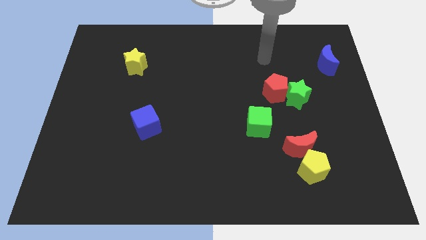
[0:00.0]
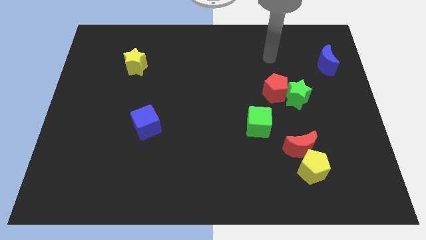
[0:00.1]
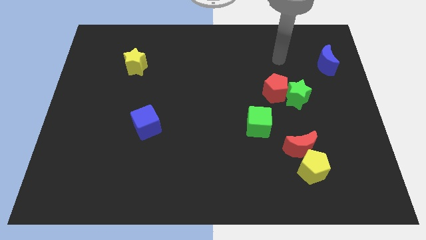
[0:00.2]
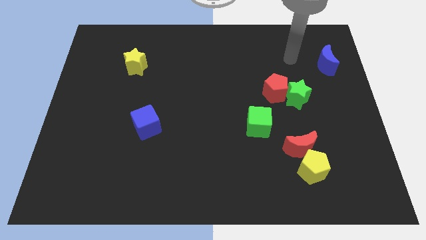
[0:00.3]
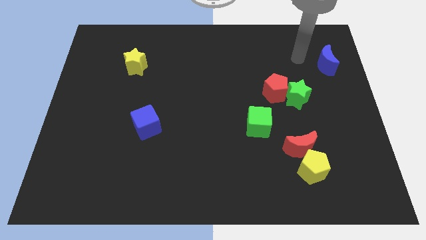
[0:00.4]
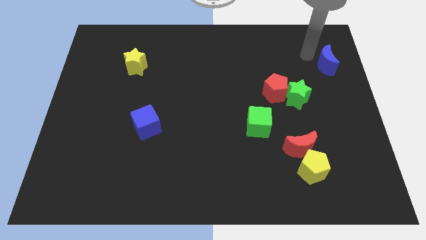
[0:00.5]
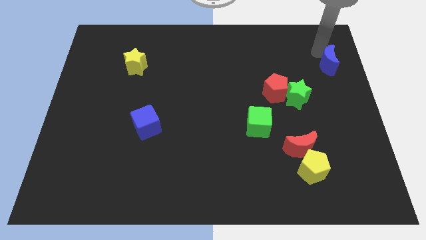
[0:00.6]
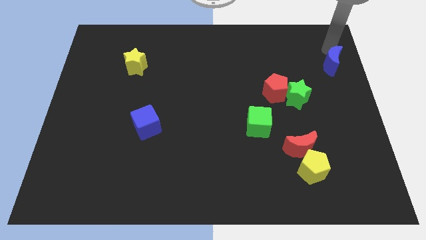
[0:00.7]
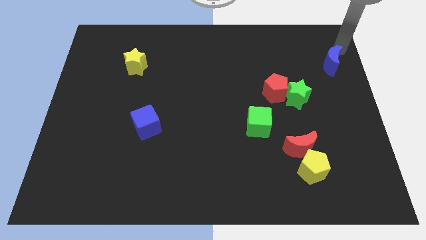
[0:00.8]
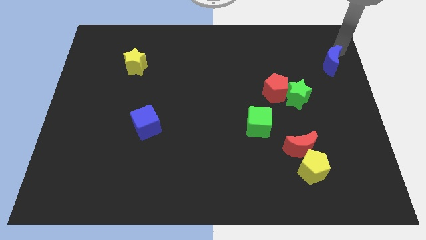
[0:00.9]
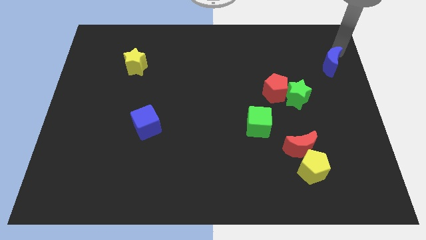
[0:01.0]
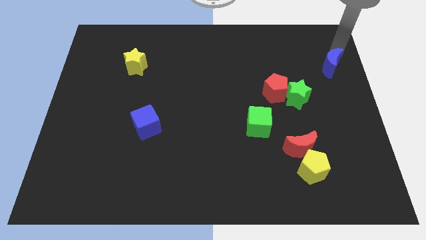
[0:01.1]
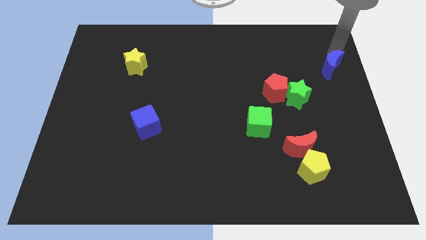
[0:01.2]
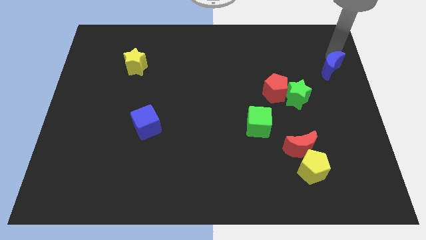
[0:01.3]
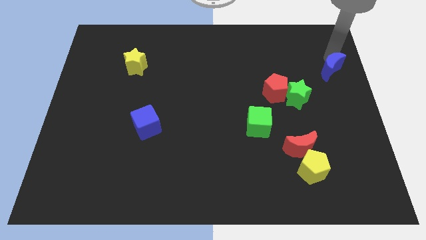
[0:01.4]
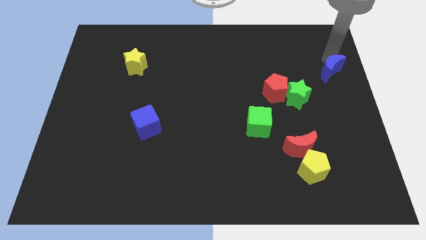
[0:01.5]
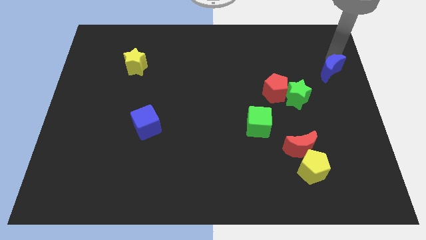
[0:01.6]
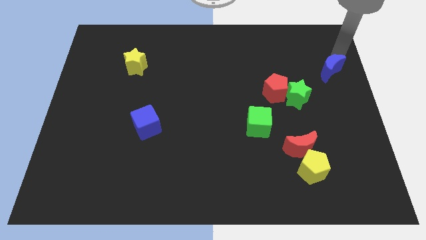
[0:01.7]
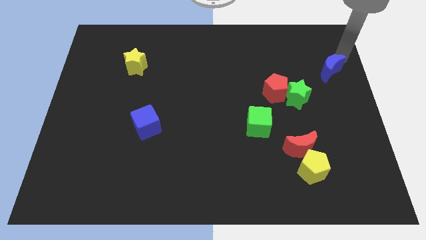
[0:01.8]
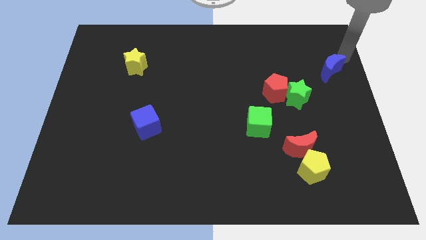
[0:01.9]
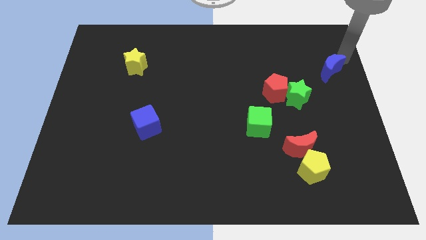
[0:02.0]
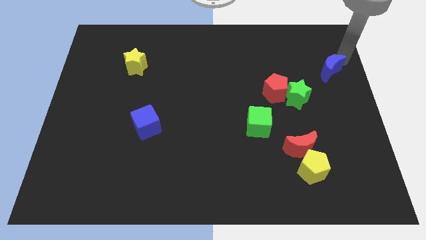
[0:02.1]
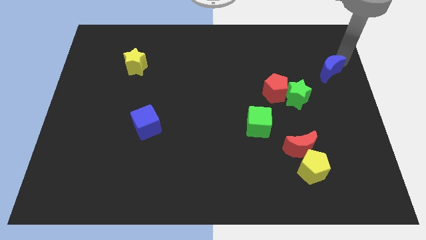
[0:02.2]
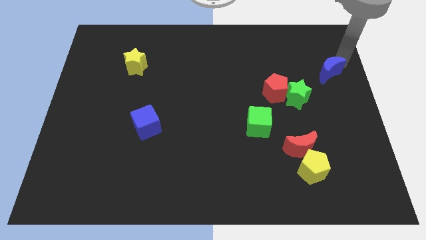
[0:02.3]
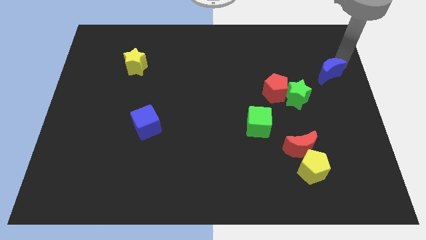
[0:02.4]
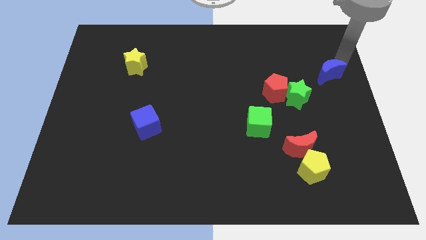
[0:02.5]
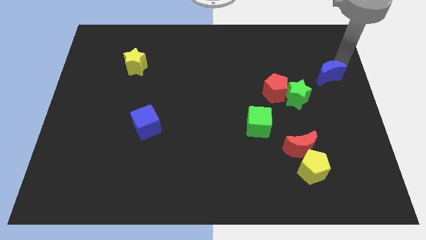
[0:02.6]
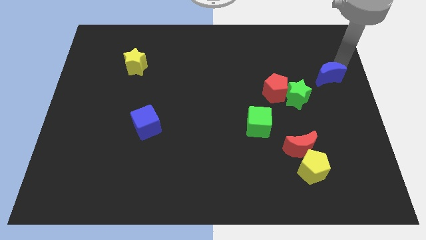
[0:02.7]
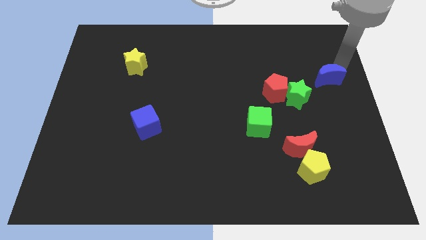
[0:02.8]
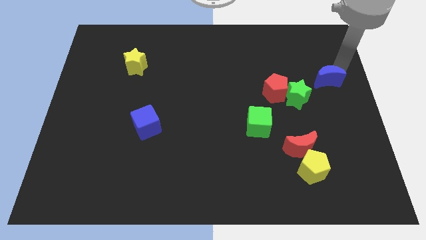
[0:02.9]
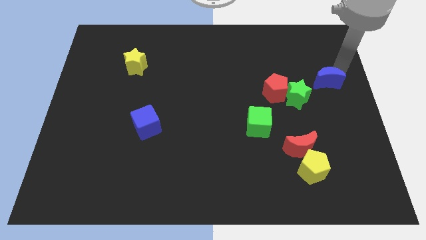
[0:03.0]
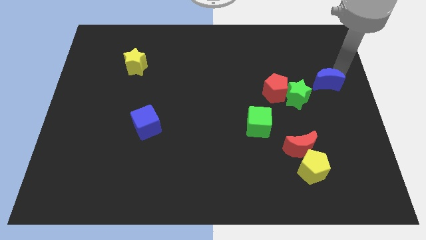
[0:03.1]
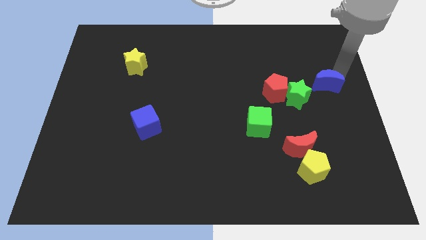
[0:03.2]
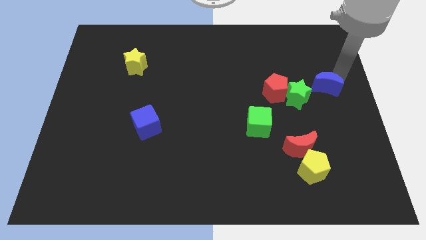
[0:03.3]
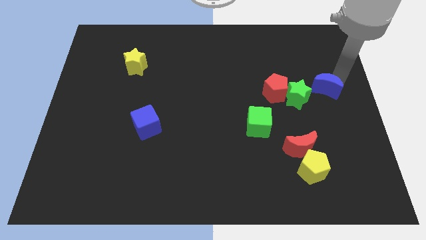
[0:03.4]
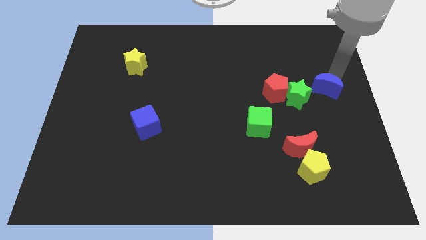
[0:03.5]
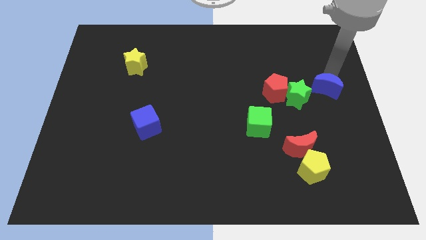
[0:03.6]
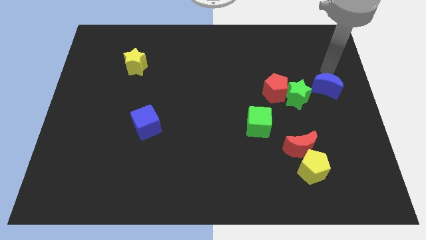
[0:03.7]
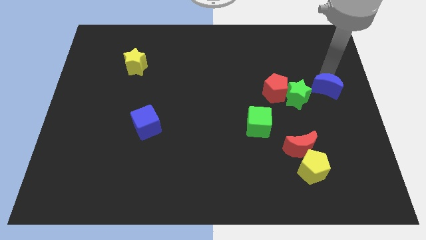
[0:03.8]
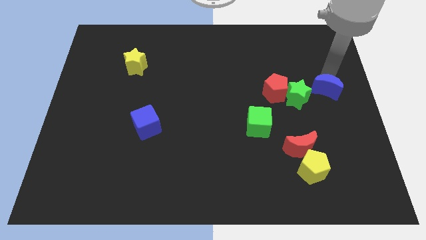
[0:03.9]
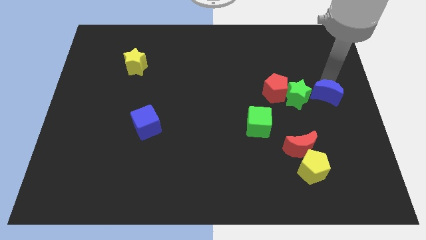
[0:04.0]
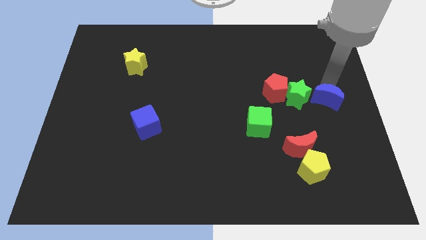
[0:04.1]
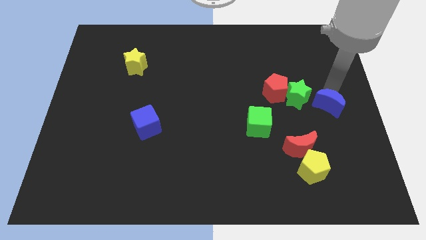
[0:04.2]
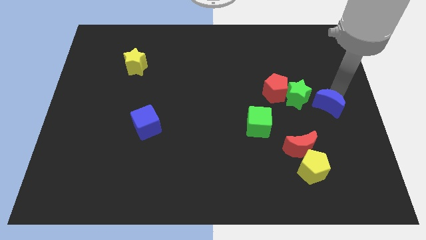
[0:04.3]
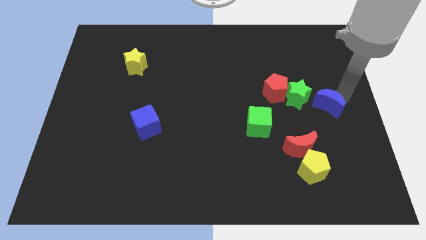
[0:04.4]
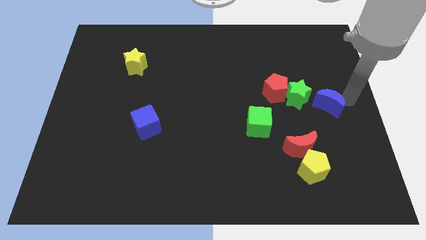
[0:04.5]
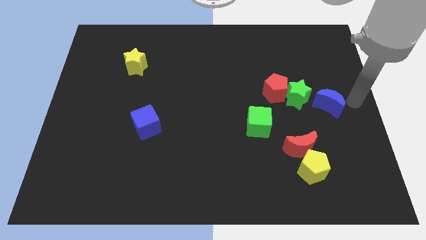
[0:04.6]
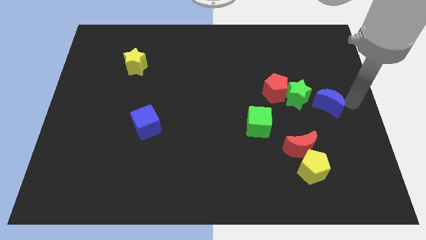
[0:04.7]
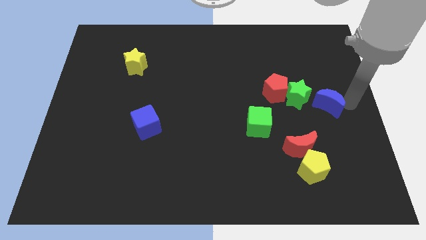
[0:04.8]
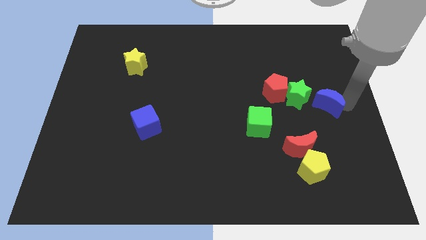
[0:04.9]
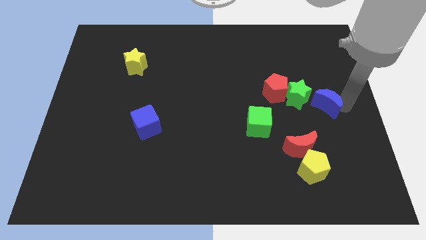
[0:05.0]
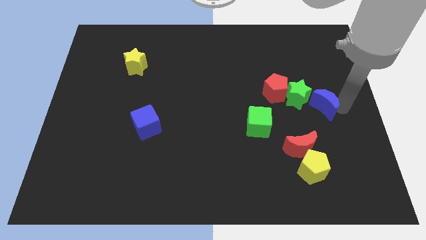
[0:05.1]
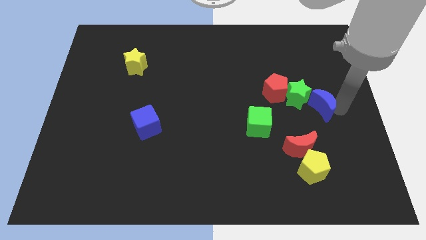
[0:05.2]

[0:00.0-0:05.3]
slide the blue moon to the bottom right side of the red pentagon

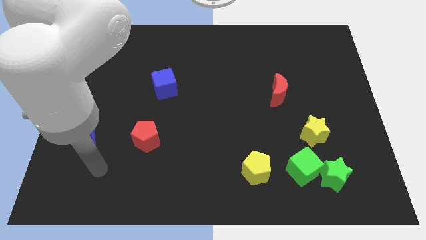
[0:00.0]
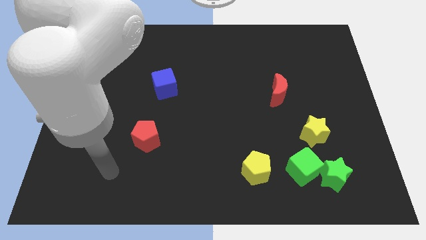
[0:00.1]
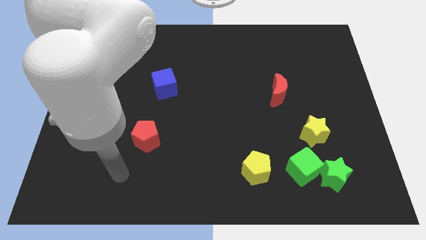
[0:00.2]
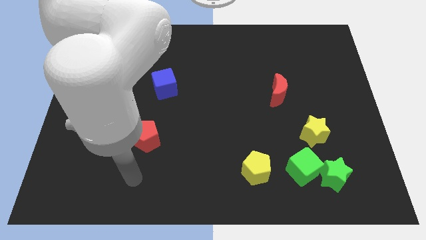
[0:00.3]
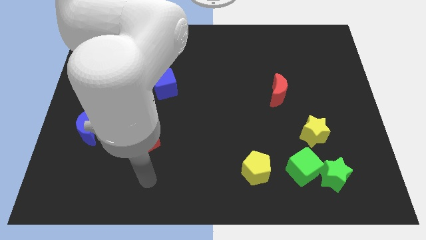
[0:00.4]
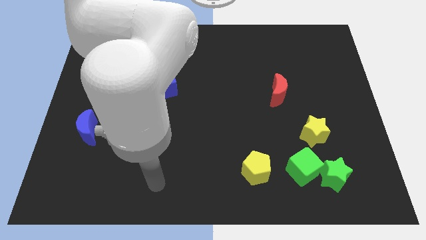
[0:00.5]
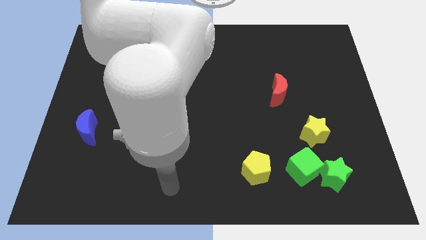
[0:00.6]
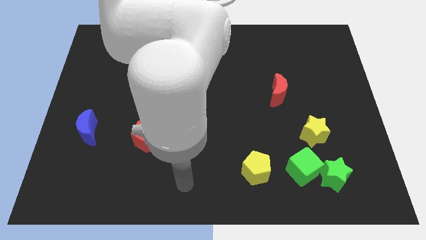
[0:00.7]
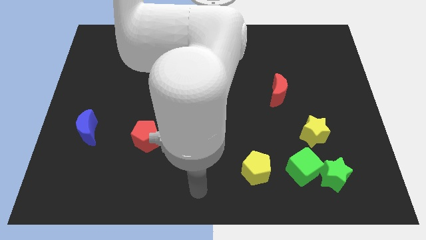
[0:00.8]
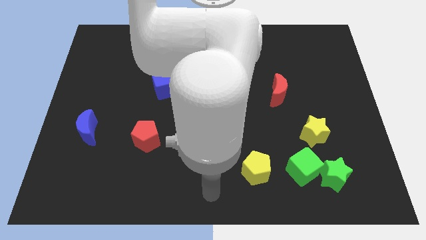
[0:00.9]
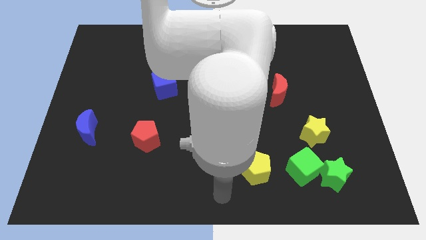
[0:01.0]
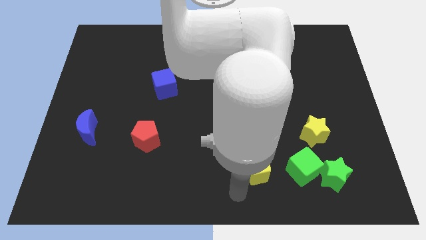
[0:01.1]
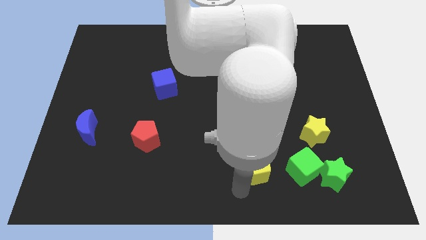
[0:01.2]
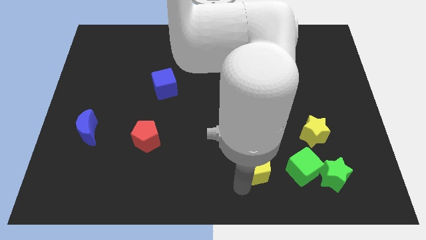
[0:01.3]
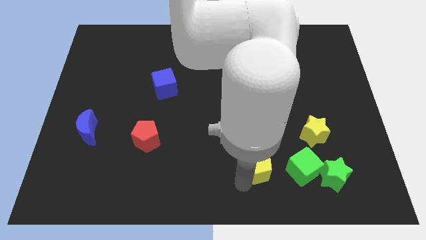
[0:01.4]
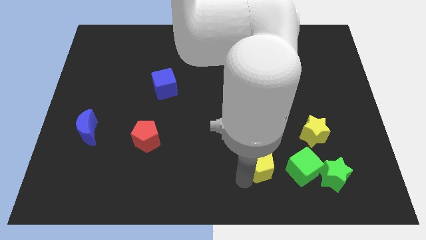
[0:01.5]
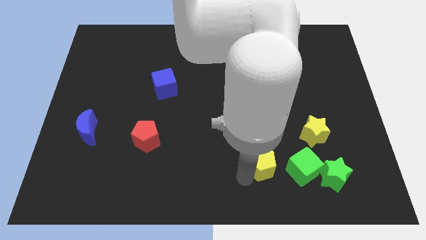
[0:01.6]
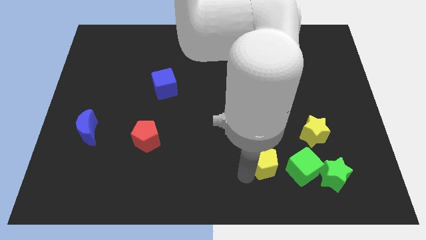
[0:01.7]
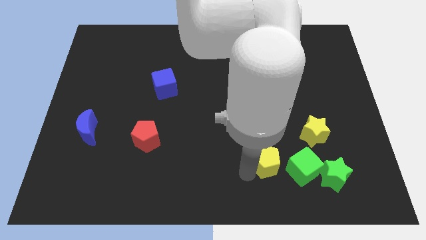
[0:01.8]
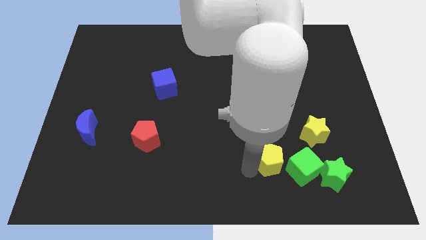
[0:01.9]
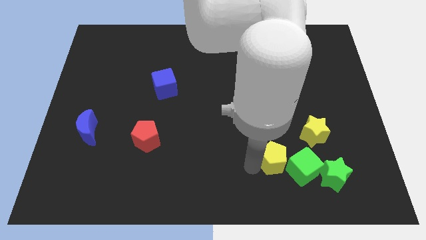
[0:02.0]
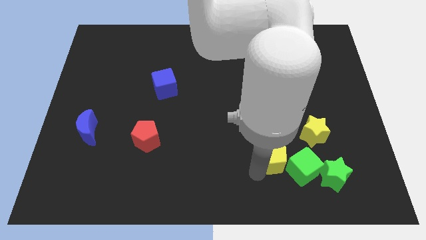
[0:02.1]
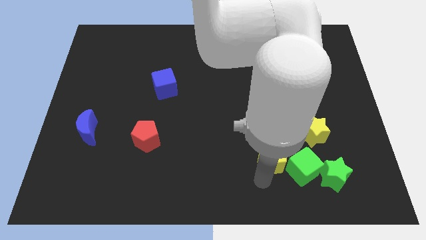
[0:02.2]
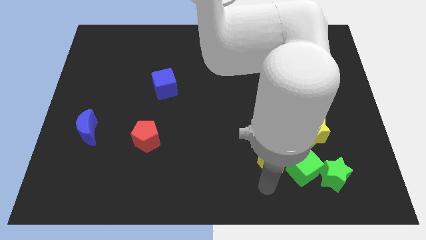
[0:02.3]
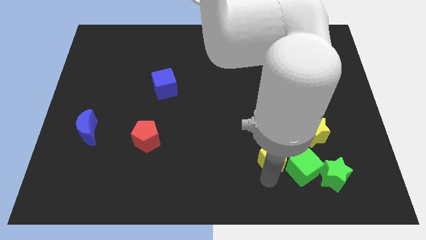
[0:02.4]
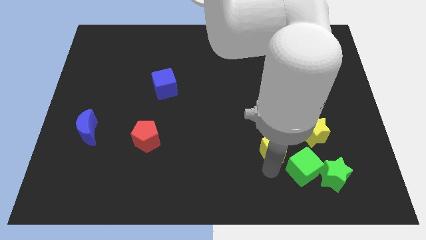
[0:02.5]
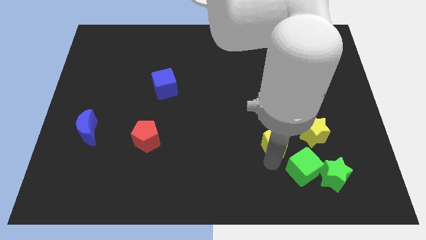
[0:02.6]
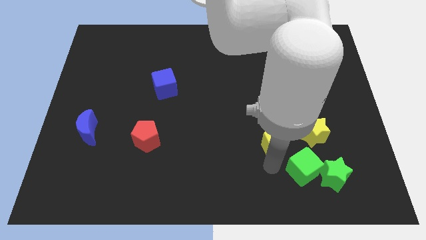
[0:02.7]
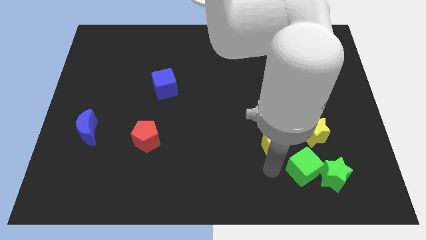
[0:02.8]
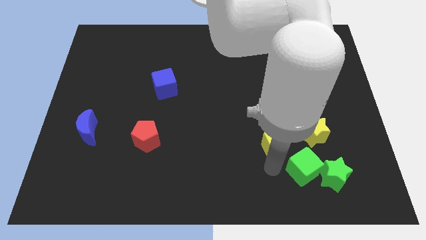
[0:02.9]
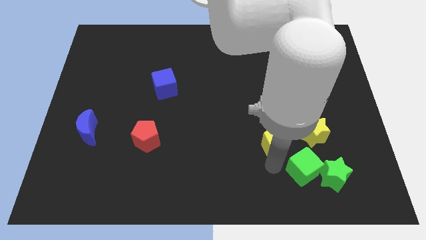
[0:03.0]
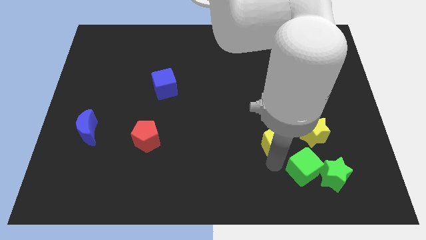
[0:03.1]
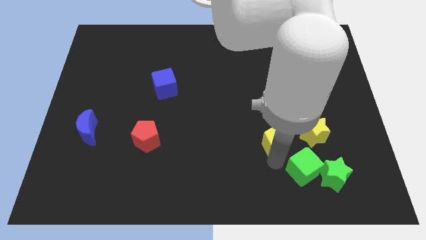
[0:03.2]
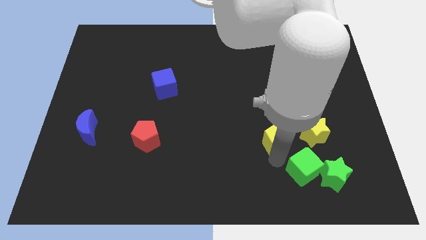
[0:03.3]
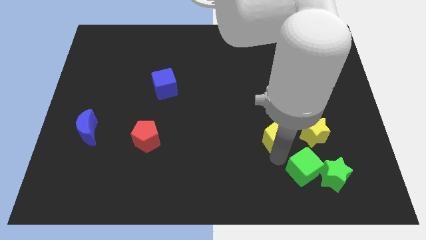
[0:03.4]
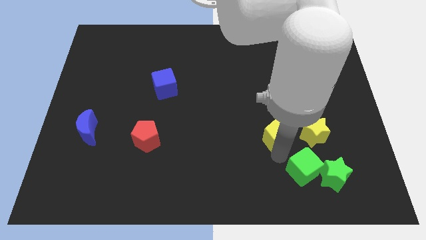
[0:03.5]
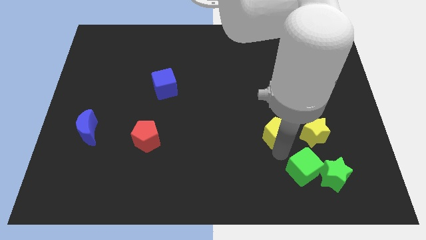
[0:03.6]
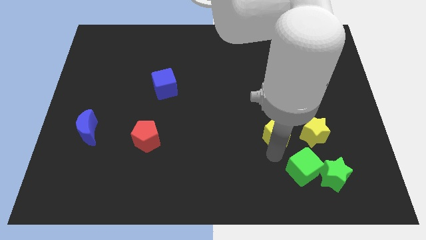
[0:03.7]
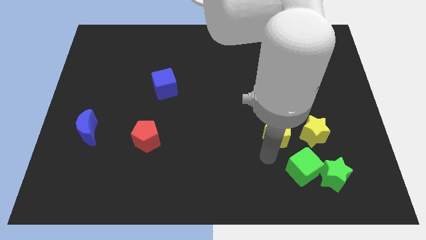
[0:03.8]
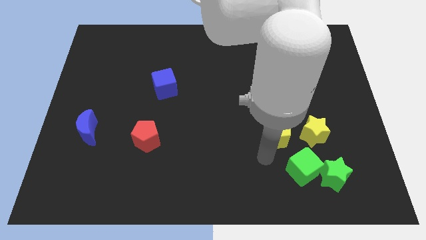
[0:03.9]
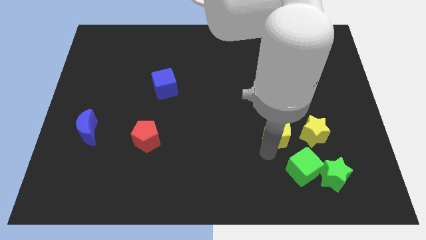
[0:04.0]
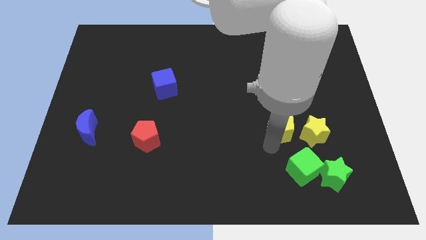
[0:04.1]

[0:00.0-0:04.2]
push the yellow pentagon diagonally up and to the left of the yellow star
